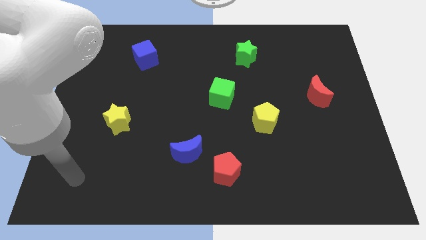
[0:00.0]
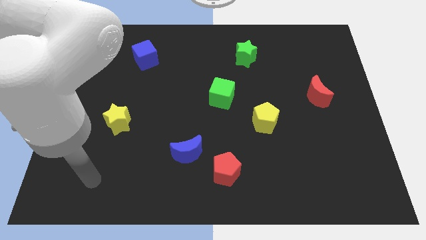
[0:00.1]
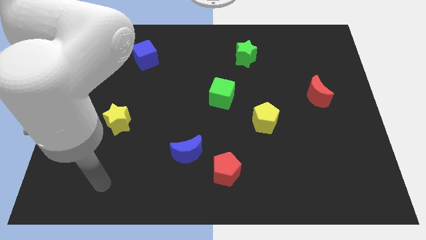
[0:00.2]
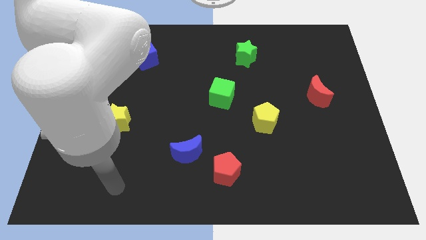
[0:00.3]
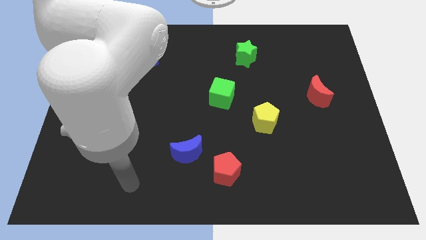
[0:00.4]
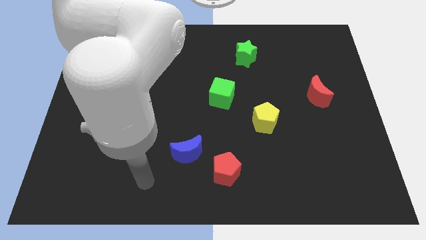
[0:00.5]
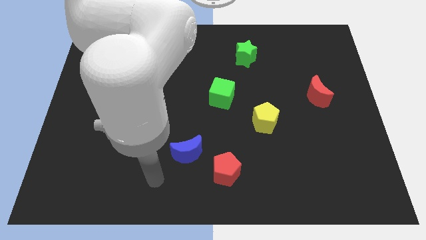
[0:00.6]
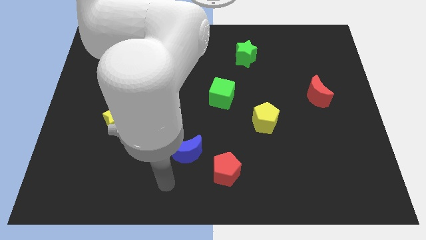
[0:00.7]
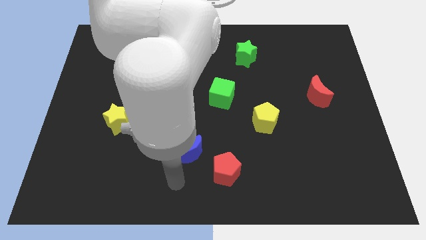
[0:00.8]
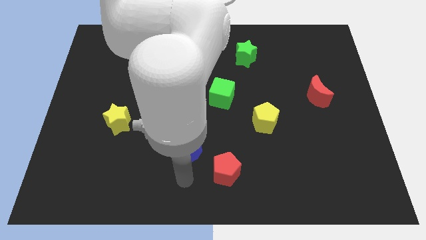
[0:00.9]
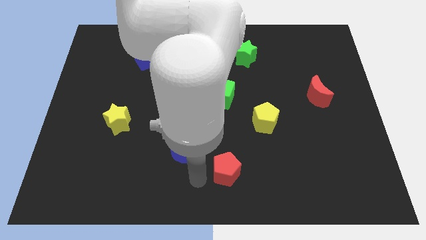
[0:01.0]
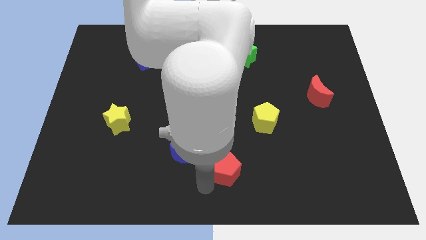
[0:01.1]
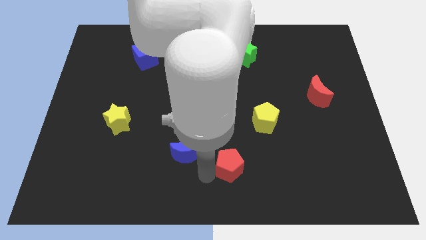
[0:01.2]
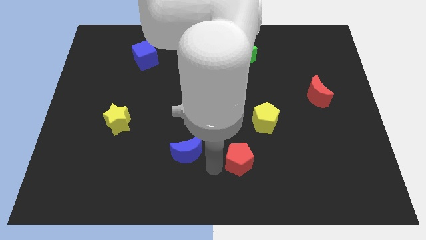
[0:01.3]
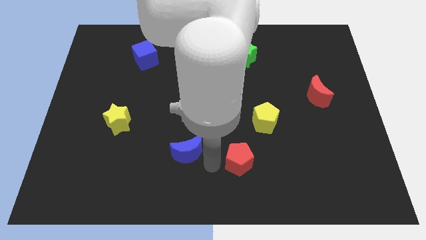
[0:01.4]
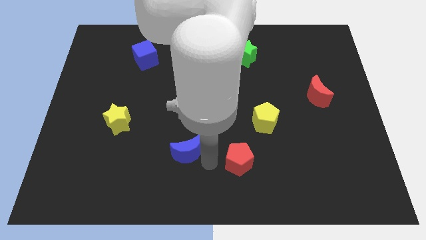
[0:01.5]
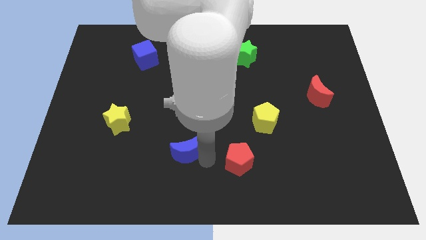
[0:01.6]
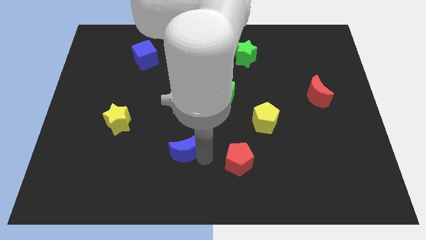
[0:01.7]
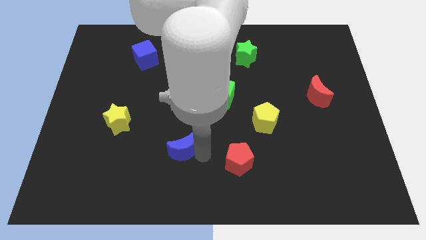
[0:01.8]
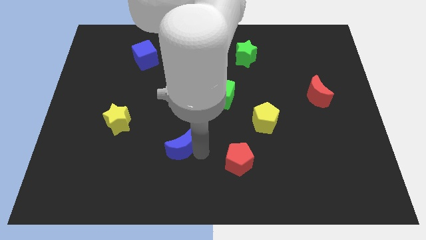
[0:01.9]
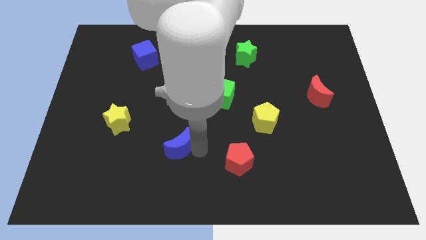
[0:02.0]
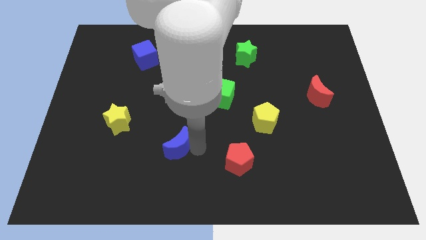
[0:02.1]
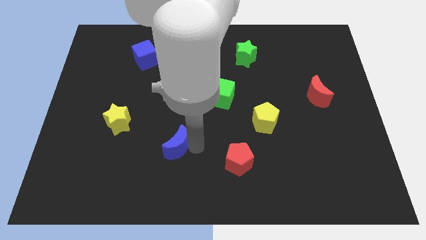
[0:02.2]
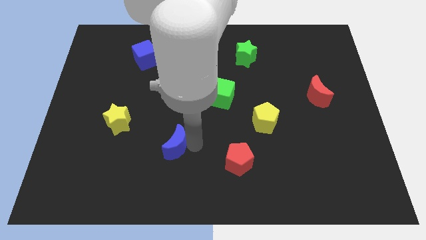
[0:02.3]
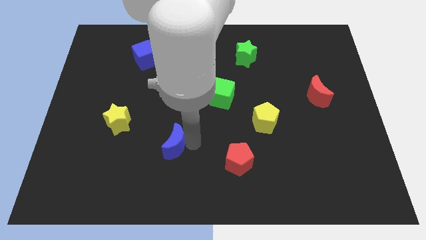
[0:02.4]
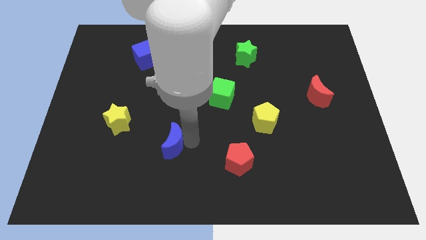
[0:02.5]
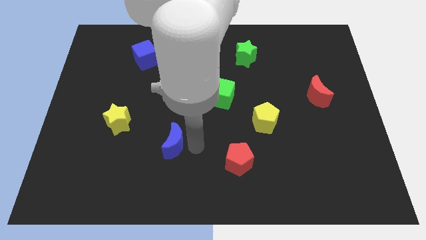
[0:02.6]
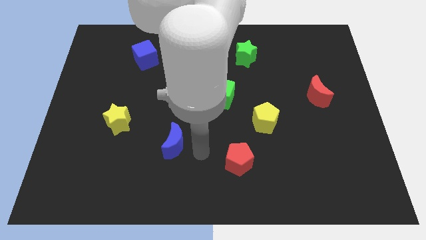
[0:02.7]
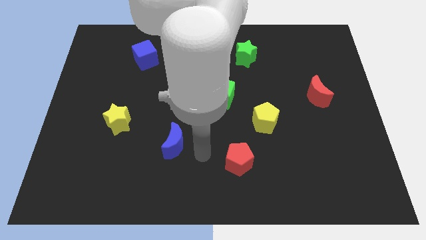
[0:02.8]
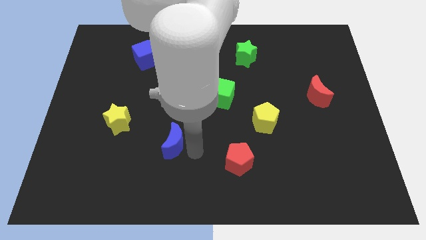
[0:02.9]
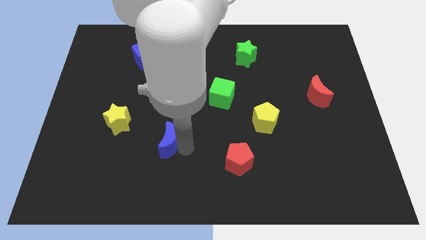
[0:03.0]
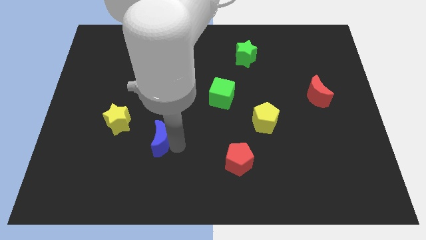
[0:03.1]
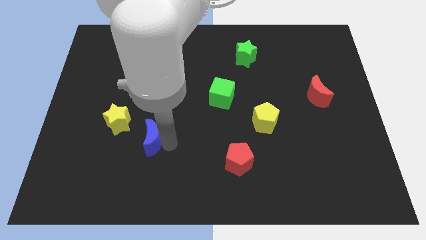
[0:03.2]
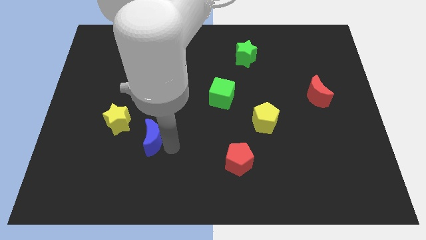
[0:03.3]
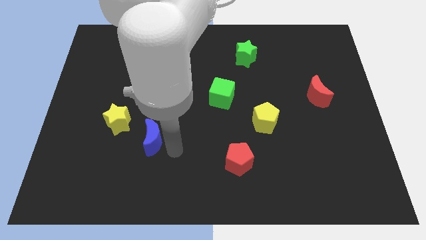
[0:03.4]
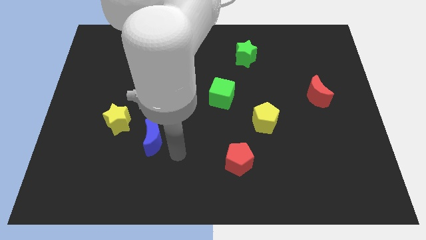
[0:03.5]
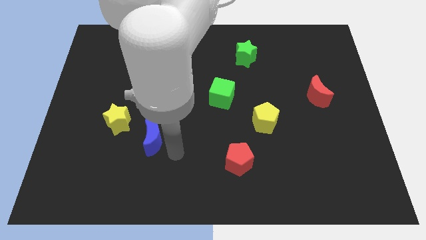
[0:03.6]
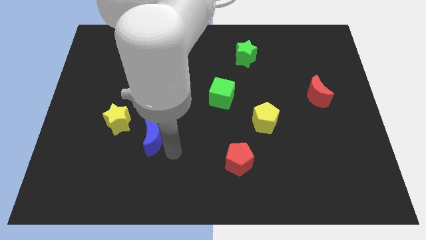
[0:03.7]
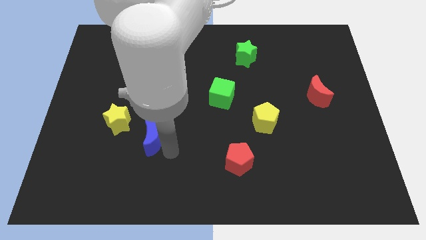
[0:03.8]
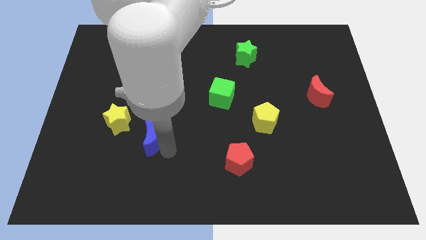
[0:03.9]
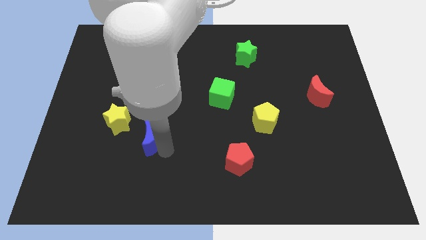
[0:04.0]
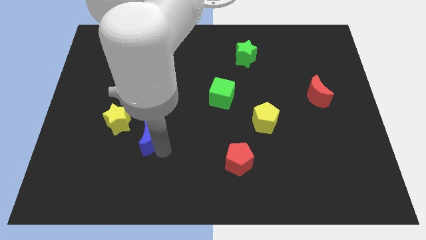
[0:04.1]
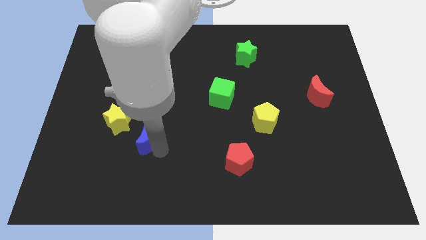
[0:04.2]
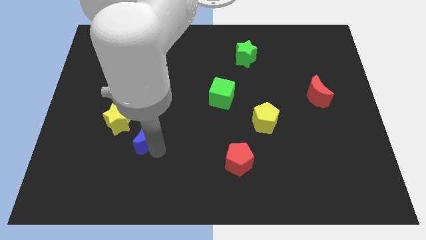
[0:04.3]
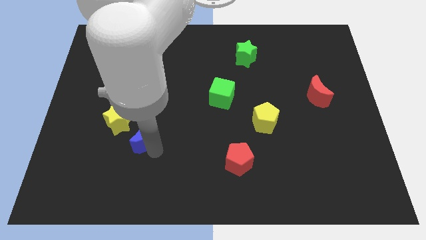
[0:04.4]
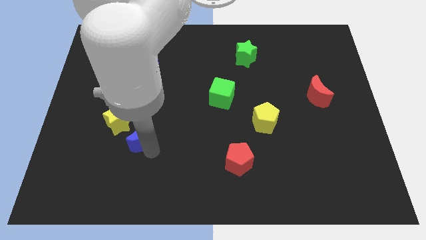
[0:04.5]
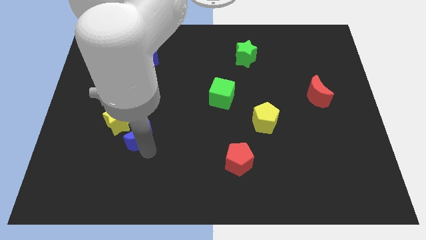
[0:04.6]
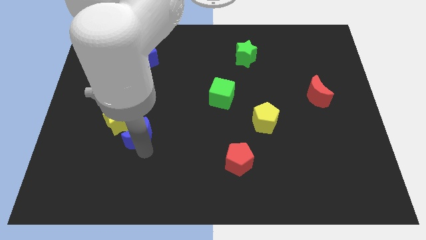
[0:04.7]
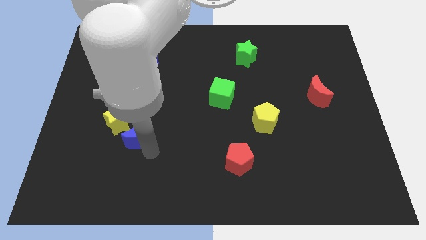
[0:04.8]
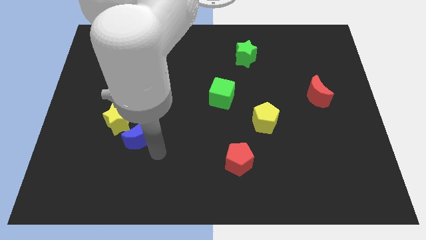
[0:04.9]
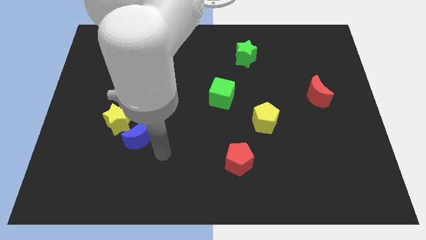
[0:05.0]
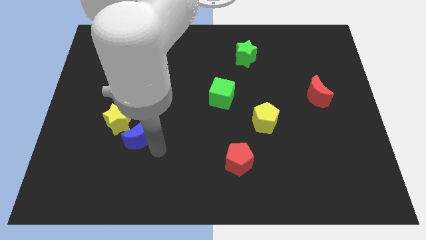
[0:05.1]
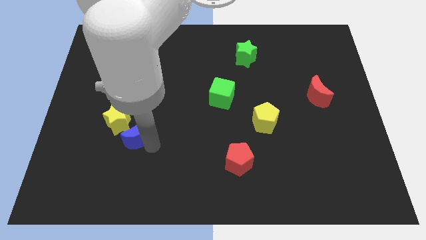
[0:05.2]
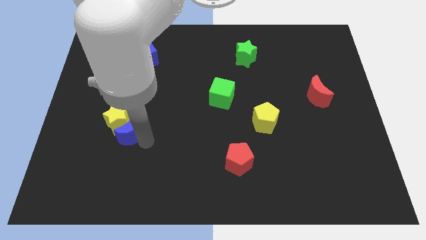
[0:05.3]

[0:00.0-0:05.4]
move the blue moon close to the yellow star

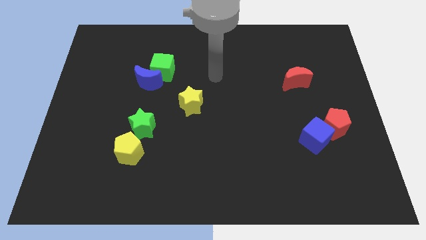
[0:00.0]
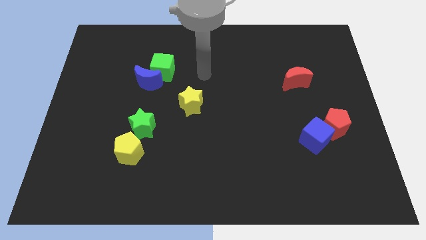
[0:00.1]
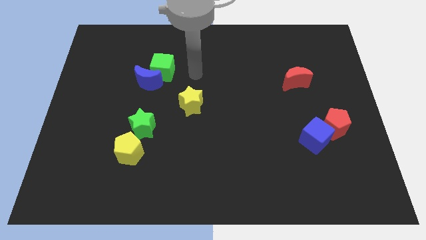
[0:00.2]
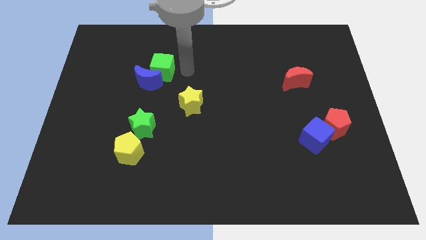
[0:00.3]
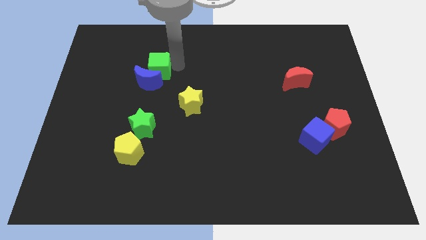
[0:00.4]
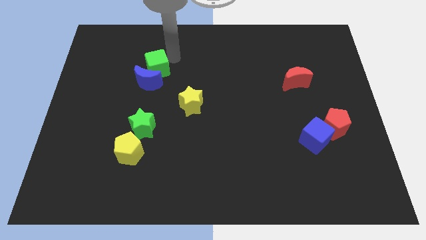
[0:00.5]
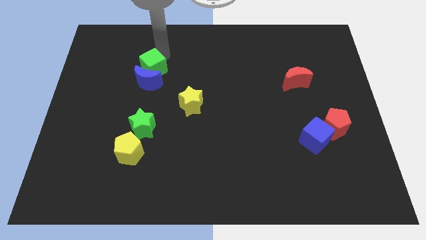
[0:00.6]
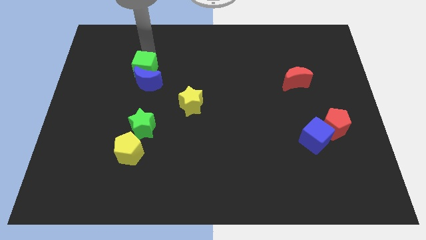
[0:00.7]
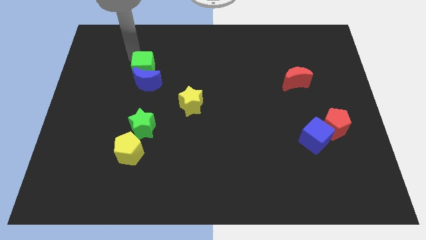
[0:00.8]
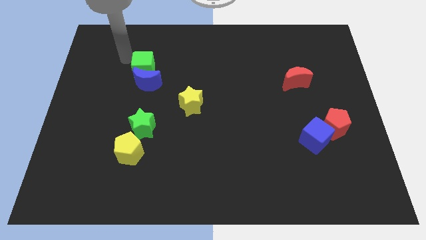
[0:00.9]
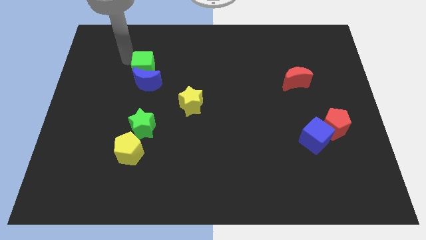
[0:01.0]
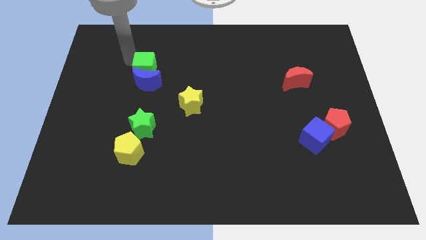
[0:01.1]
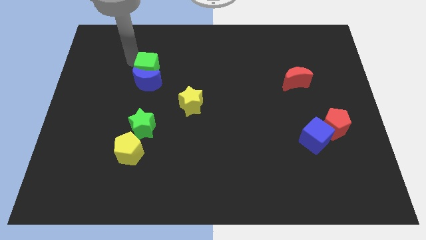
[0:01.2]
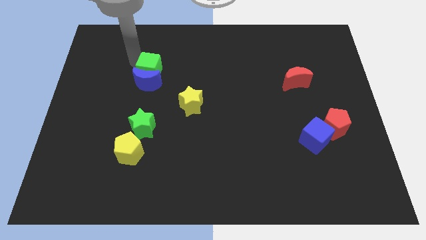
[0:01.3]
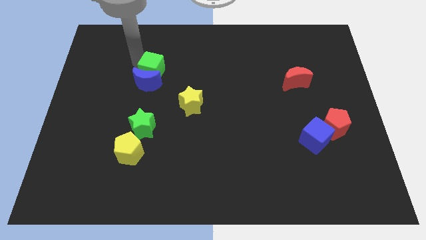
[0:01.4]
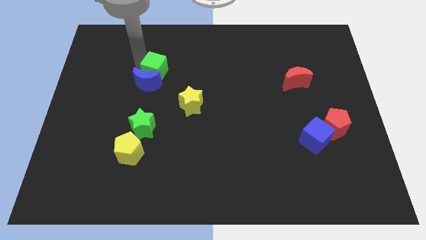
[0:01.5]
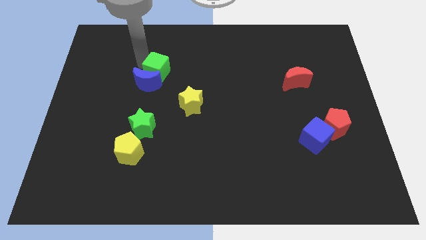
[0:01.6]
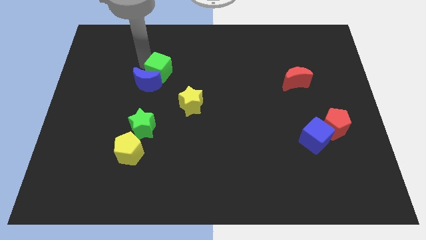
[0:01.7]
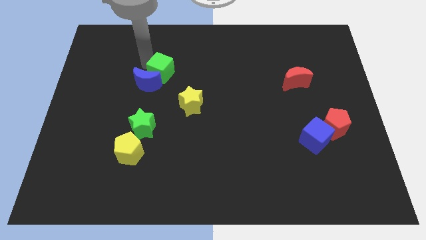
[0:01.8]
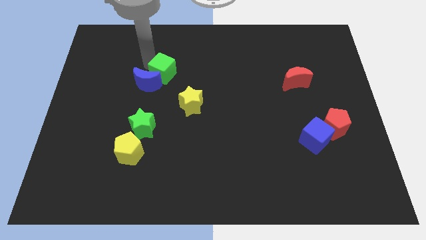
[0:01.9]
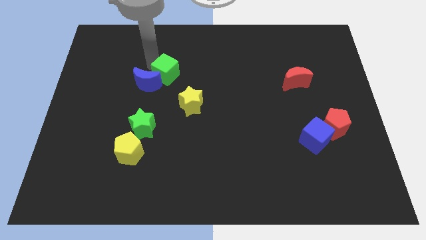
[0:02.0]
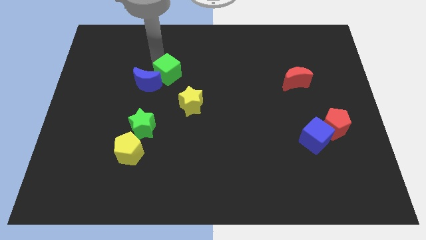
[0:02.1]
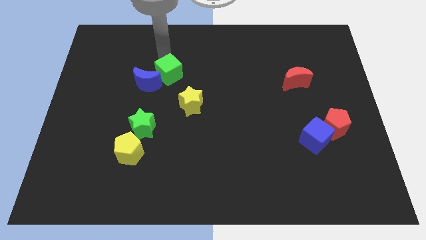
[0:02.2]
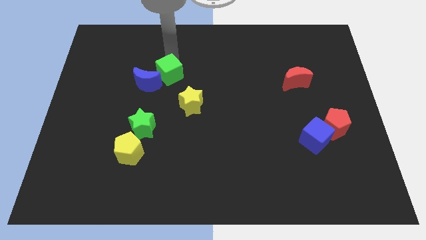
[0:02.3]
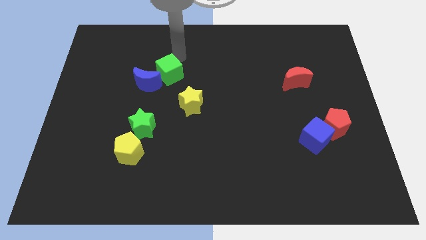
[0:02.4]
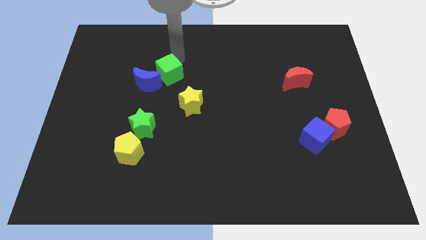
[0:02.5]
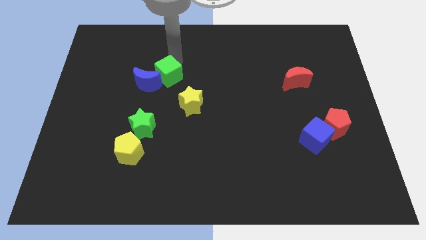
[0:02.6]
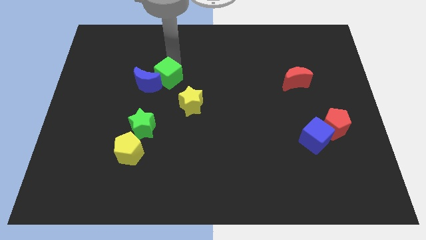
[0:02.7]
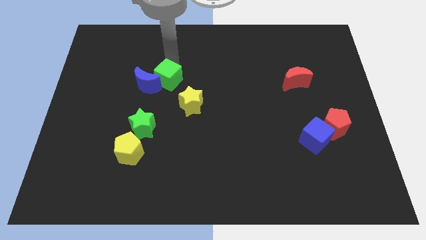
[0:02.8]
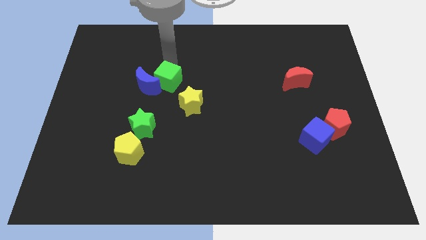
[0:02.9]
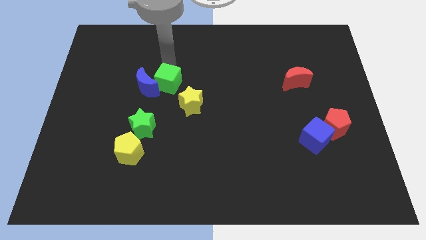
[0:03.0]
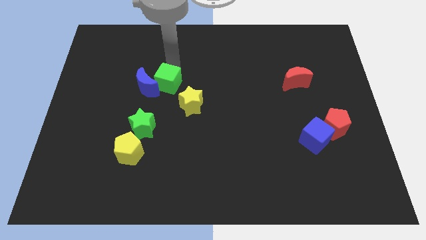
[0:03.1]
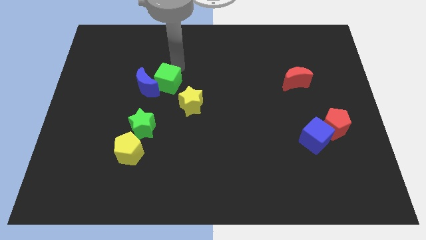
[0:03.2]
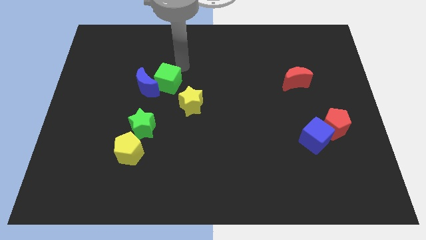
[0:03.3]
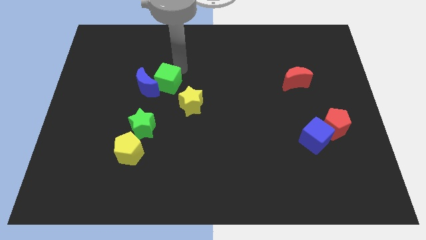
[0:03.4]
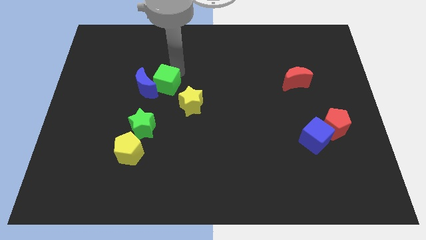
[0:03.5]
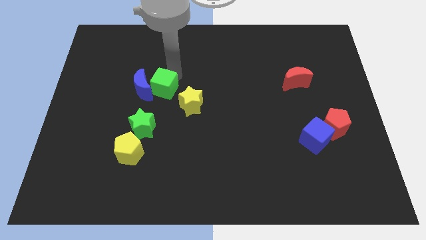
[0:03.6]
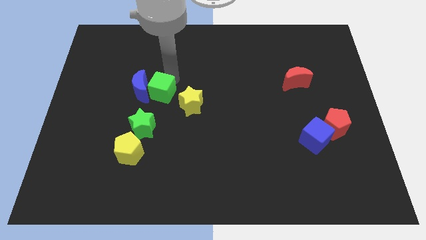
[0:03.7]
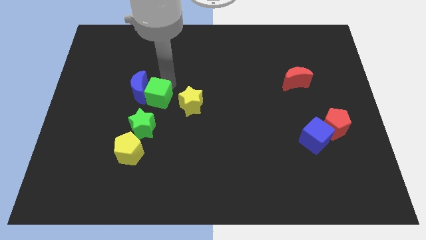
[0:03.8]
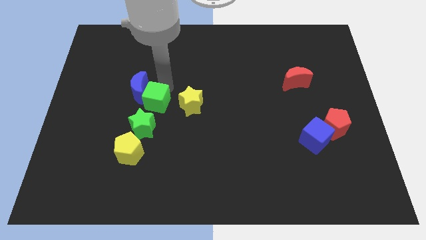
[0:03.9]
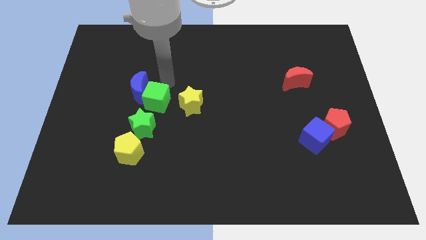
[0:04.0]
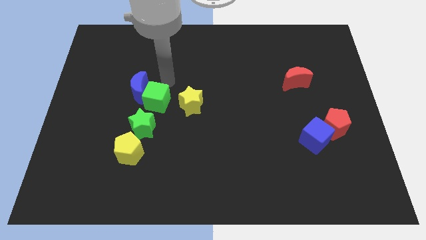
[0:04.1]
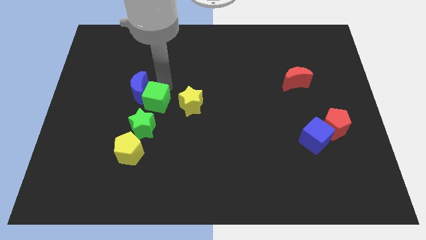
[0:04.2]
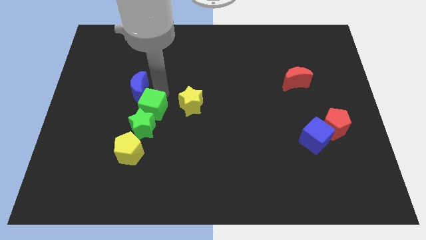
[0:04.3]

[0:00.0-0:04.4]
move the green cube close to the green star
